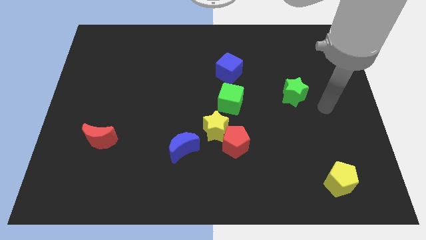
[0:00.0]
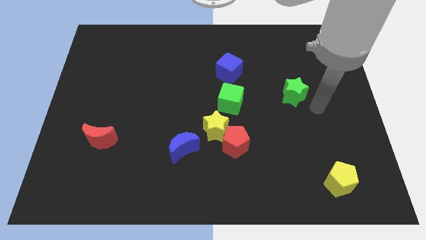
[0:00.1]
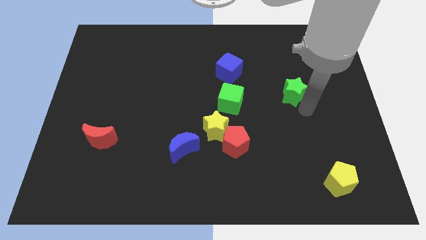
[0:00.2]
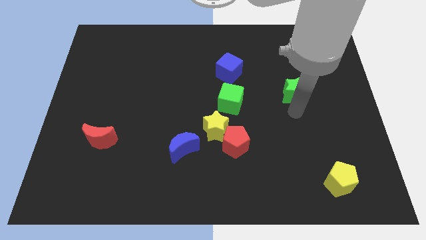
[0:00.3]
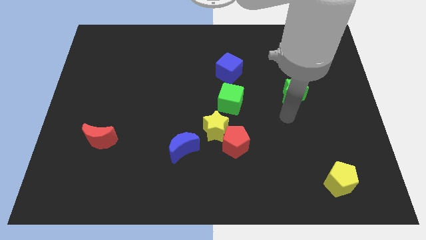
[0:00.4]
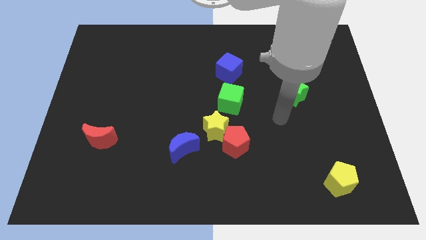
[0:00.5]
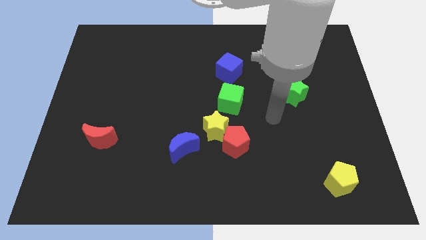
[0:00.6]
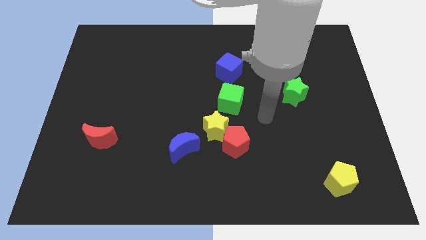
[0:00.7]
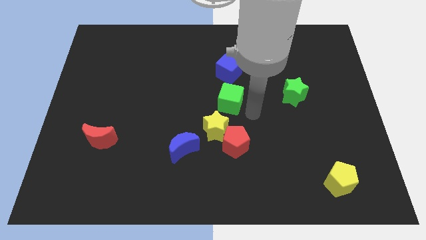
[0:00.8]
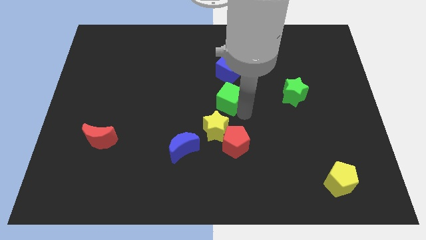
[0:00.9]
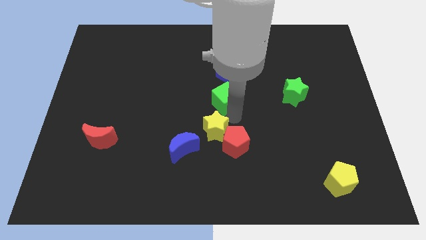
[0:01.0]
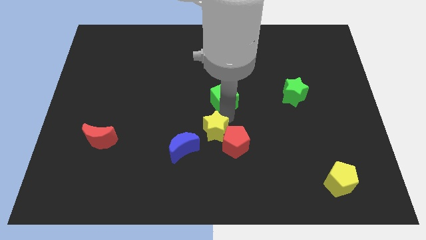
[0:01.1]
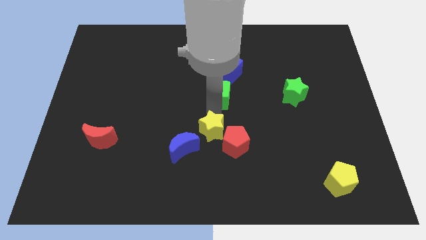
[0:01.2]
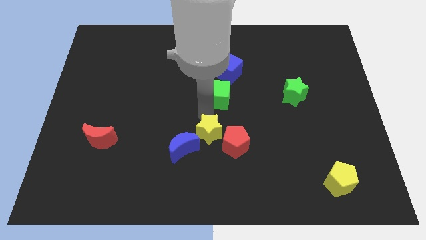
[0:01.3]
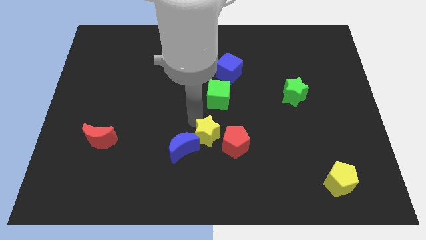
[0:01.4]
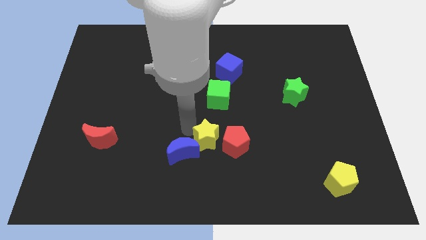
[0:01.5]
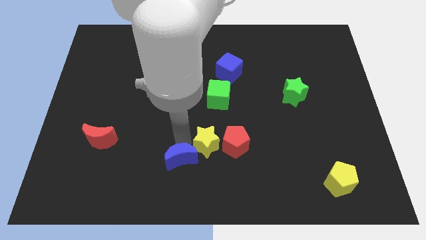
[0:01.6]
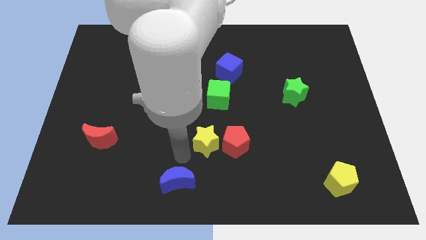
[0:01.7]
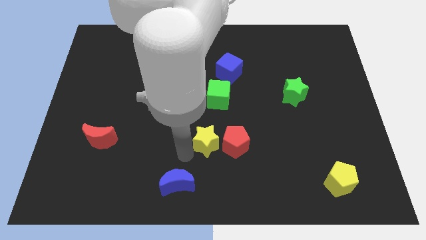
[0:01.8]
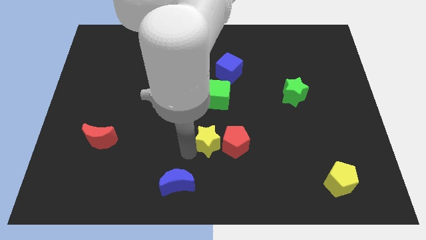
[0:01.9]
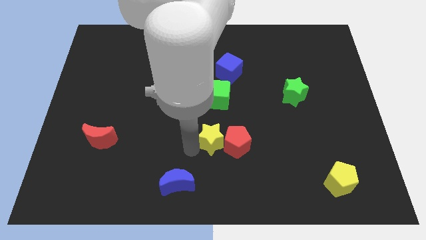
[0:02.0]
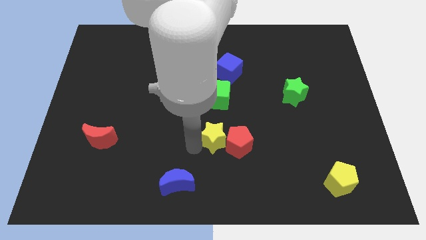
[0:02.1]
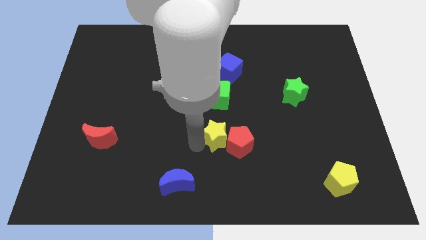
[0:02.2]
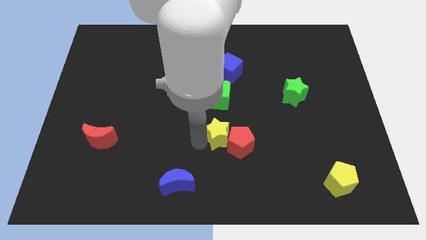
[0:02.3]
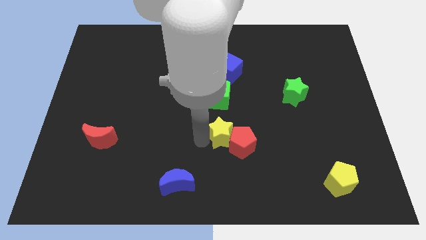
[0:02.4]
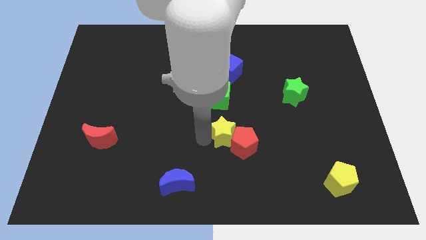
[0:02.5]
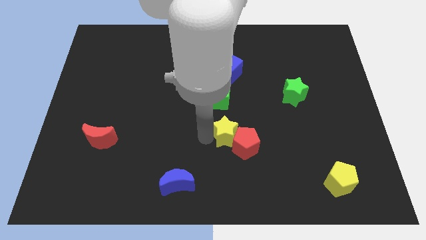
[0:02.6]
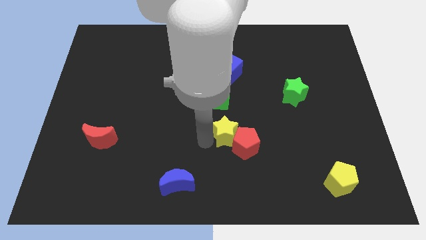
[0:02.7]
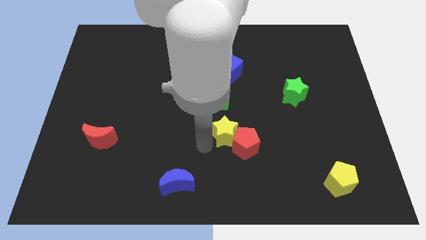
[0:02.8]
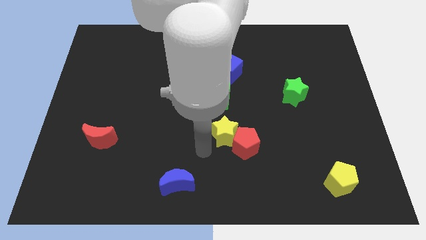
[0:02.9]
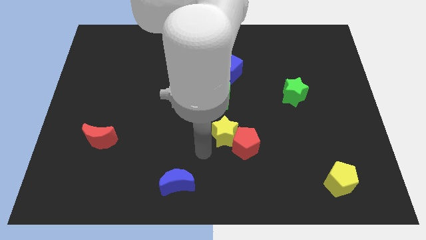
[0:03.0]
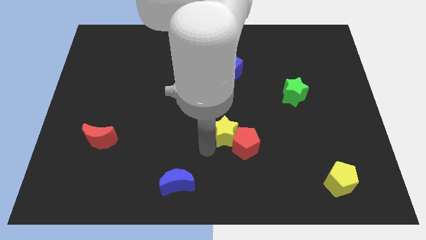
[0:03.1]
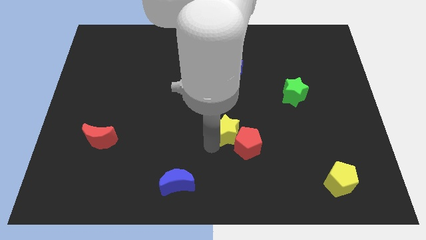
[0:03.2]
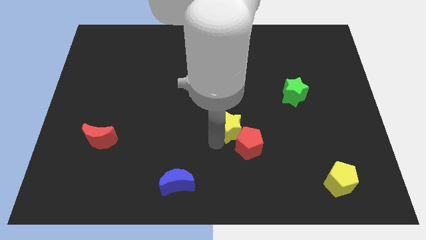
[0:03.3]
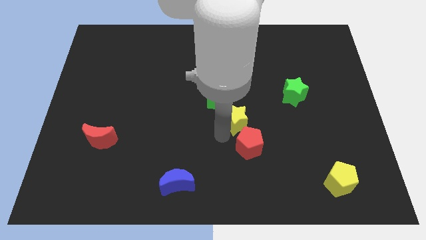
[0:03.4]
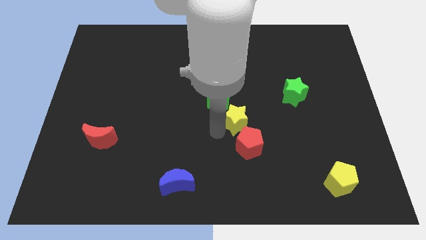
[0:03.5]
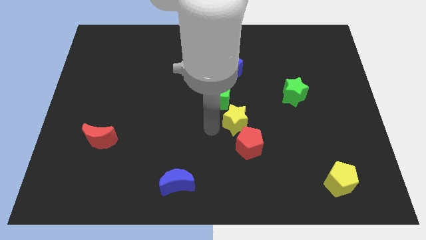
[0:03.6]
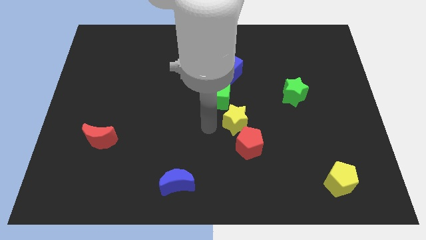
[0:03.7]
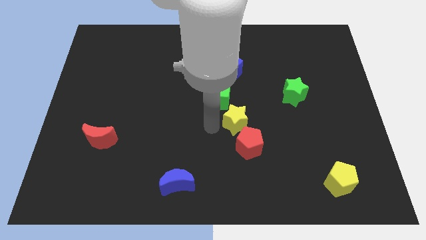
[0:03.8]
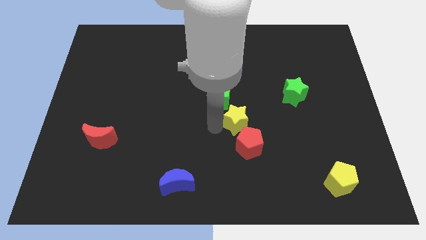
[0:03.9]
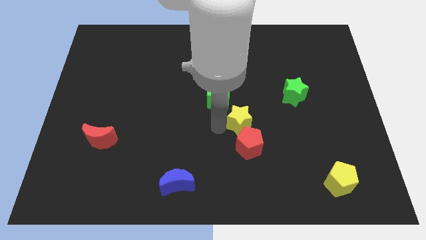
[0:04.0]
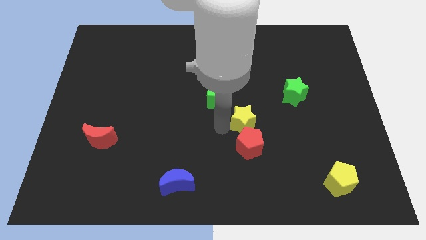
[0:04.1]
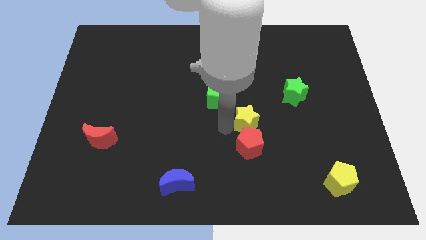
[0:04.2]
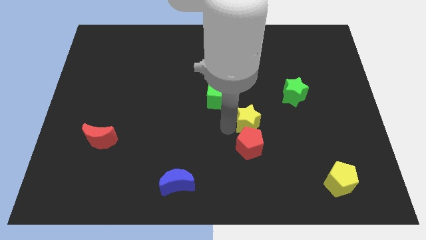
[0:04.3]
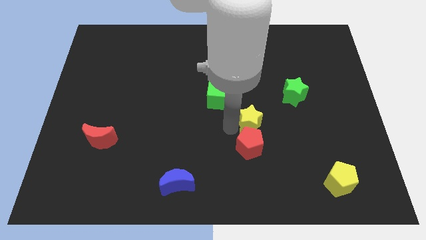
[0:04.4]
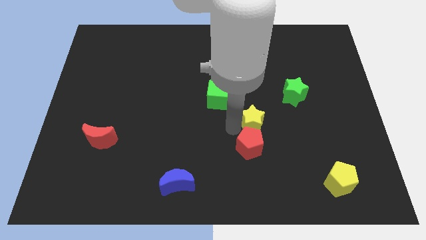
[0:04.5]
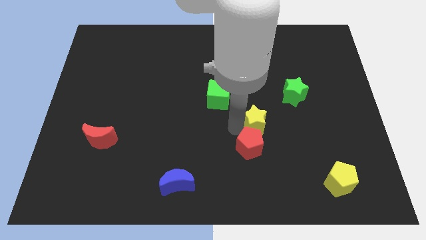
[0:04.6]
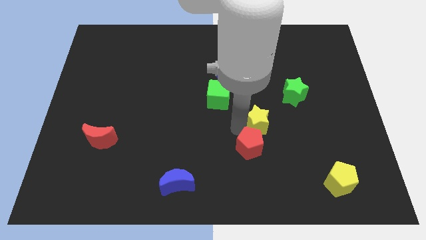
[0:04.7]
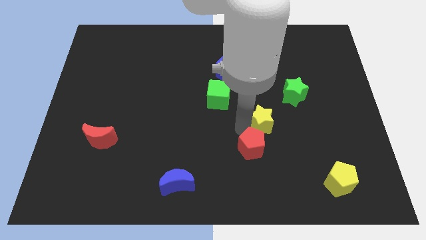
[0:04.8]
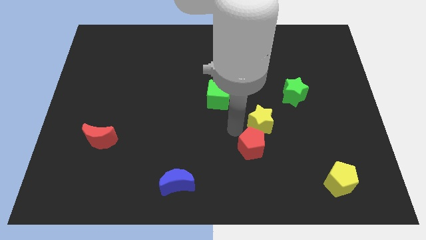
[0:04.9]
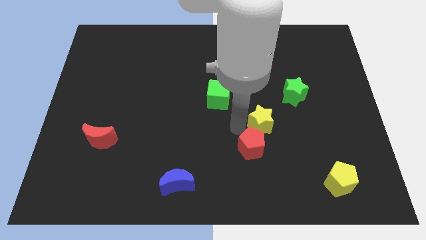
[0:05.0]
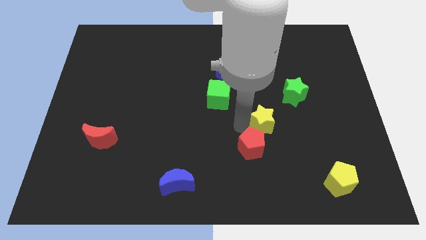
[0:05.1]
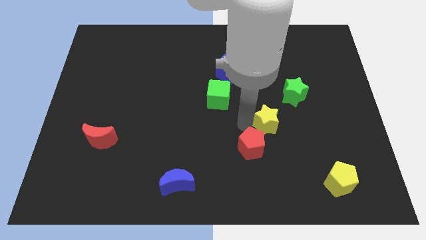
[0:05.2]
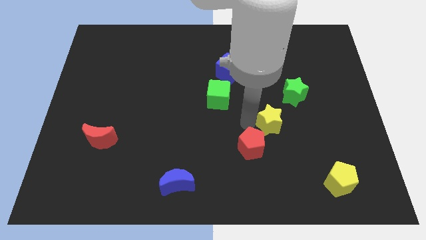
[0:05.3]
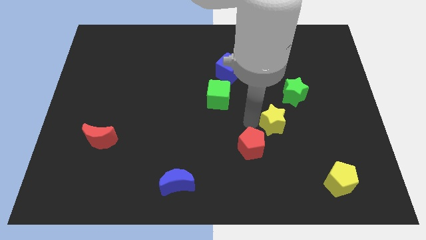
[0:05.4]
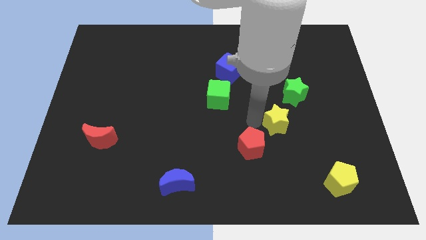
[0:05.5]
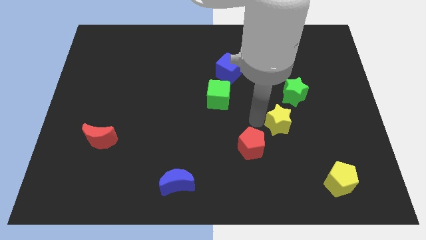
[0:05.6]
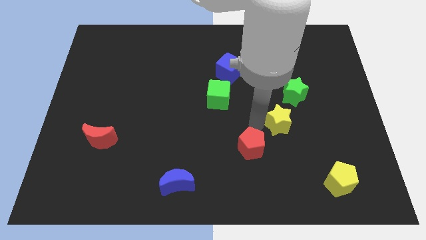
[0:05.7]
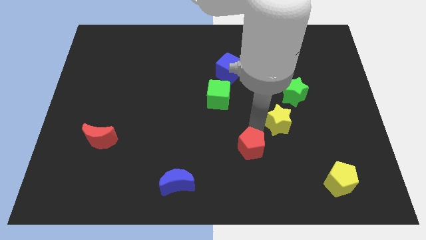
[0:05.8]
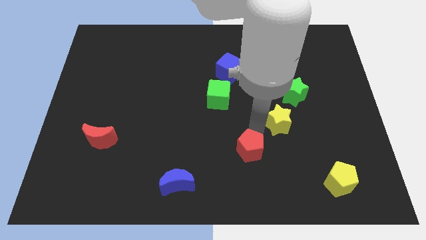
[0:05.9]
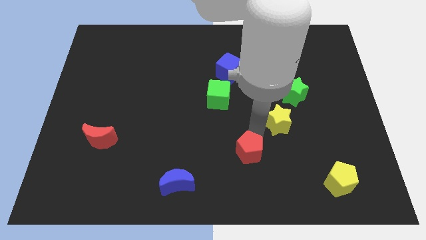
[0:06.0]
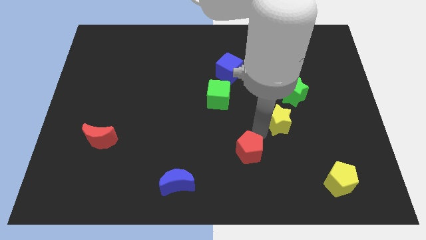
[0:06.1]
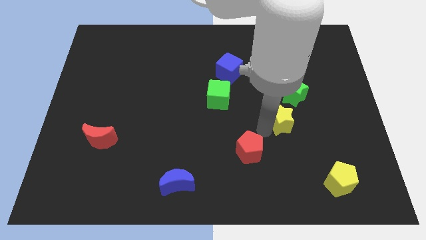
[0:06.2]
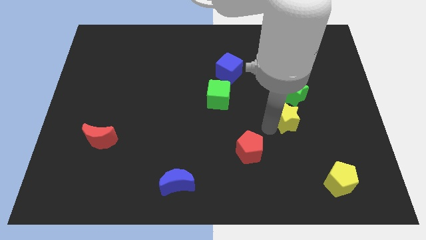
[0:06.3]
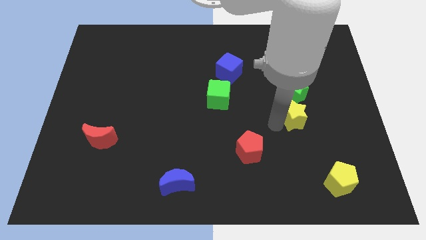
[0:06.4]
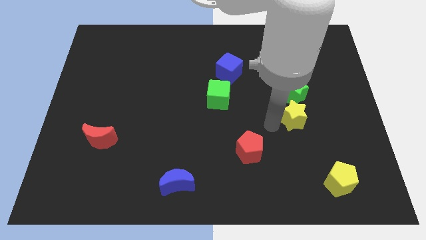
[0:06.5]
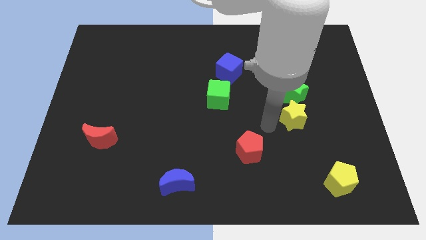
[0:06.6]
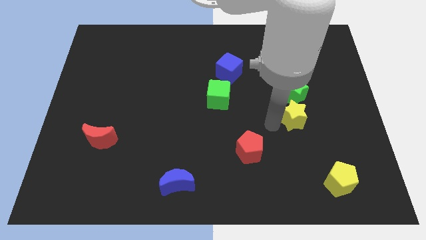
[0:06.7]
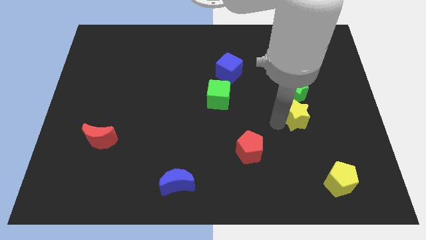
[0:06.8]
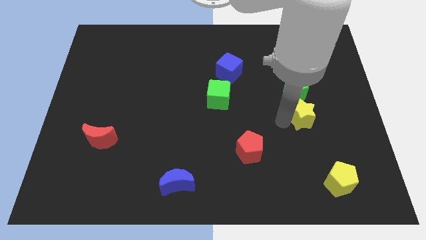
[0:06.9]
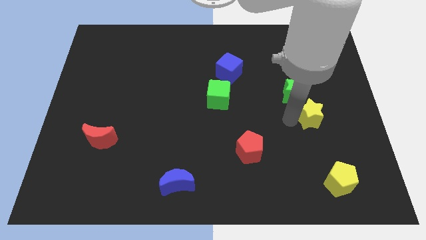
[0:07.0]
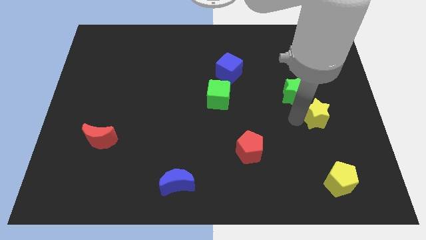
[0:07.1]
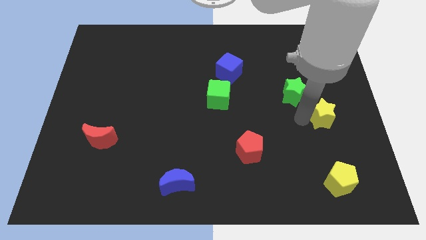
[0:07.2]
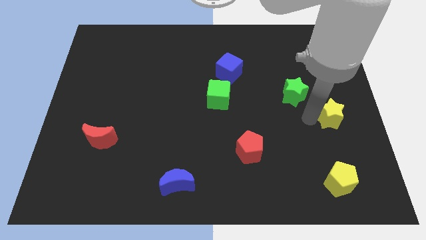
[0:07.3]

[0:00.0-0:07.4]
push the yellow star to the center right

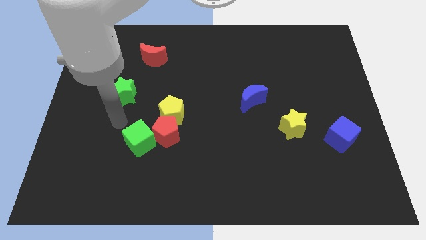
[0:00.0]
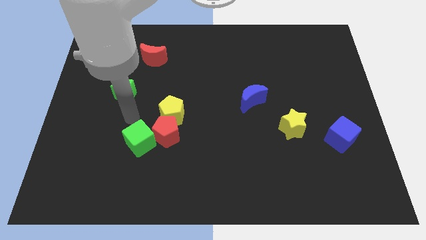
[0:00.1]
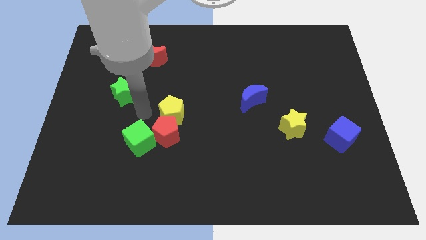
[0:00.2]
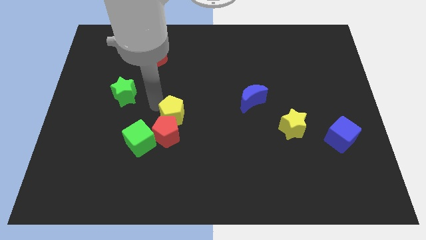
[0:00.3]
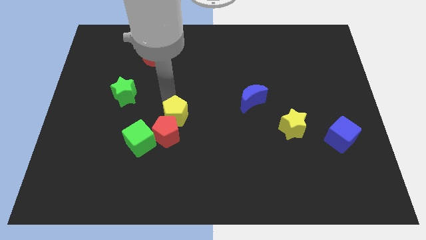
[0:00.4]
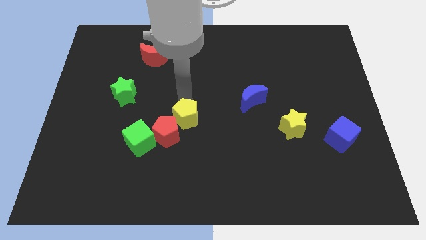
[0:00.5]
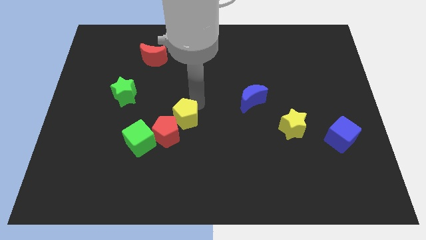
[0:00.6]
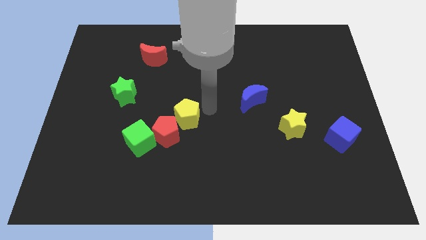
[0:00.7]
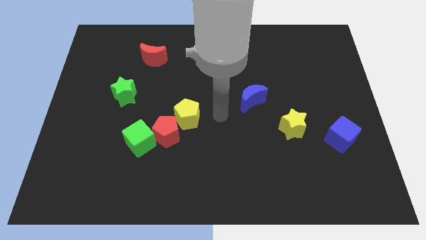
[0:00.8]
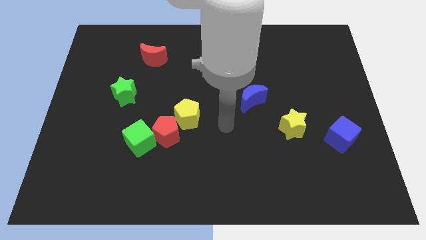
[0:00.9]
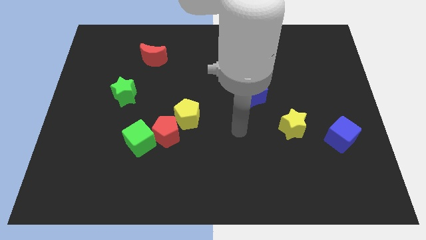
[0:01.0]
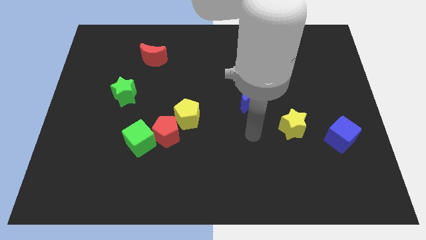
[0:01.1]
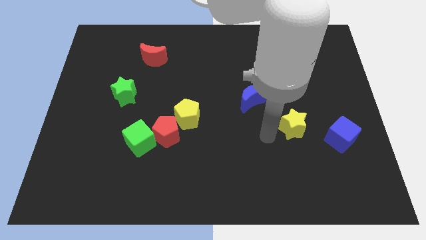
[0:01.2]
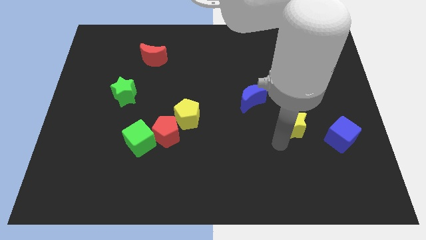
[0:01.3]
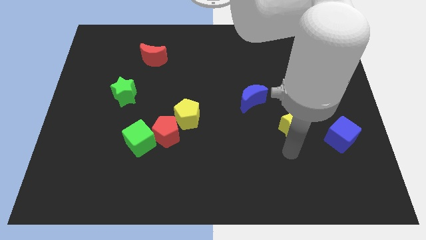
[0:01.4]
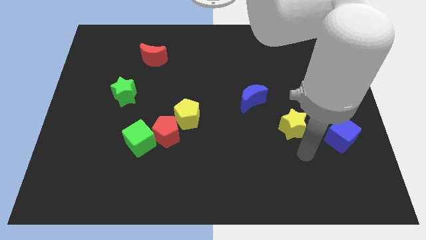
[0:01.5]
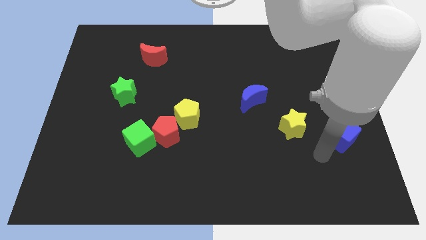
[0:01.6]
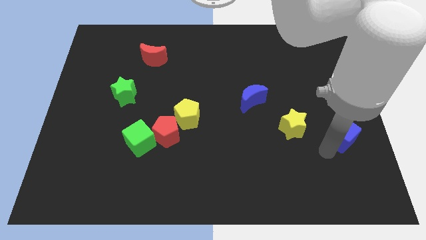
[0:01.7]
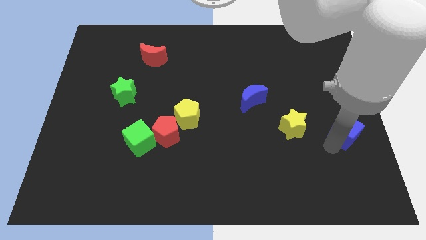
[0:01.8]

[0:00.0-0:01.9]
slide the blue cube to the center right
